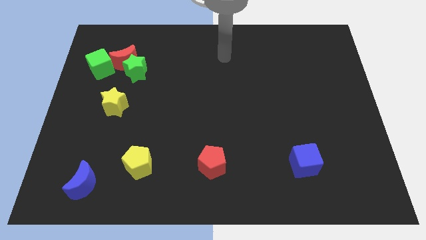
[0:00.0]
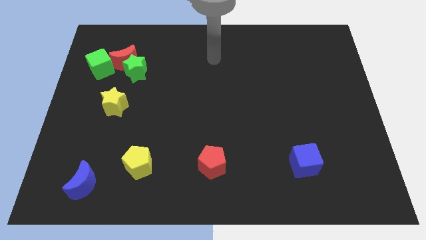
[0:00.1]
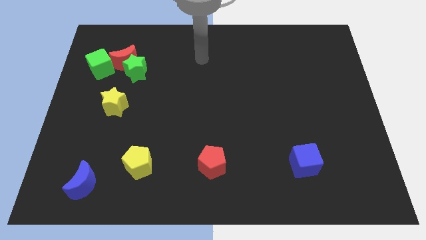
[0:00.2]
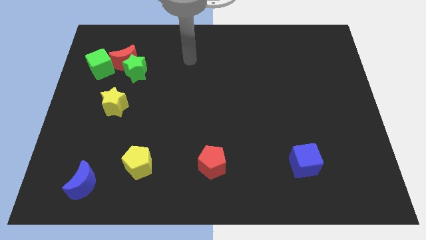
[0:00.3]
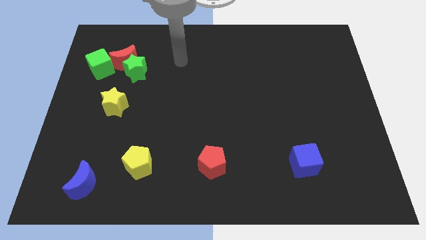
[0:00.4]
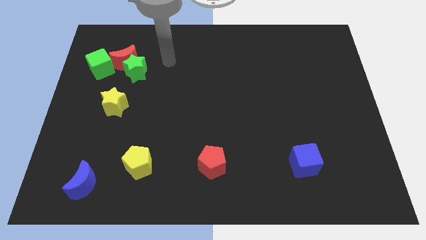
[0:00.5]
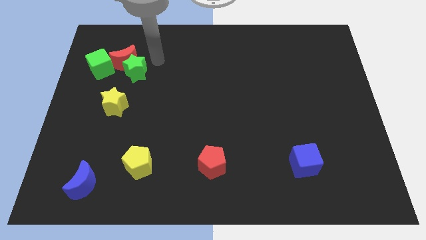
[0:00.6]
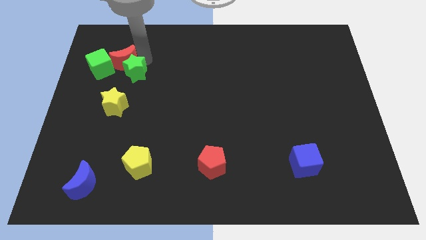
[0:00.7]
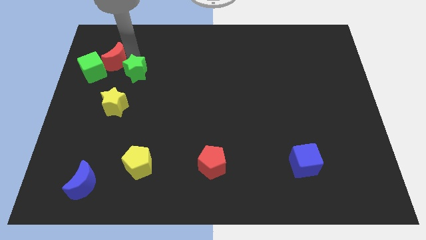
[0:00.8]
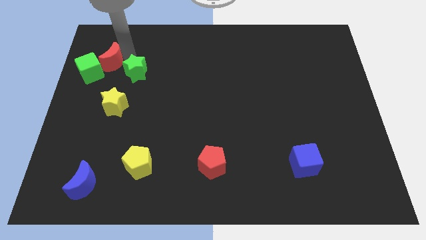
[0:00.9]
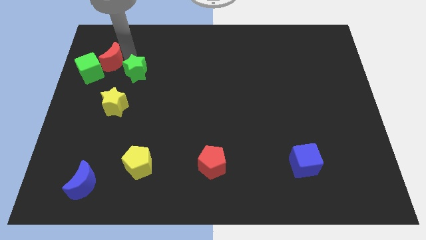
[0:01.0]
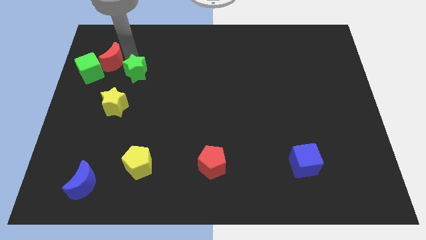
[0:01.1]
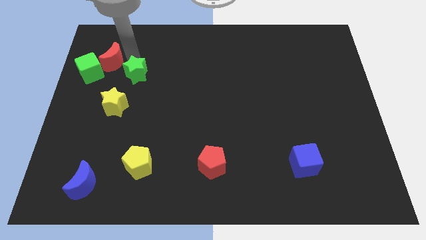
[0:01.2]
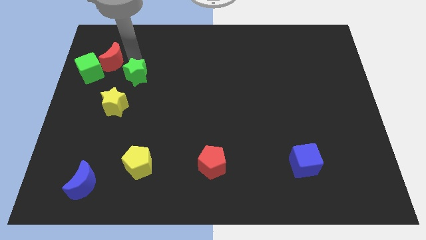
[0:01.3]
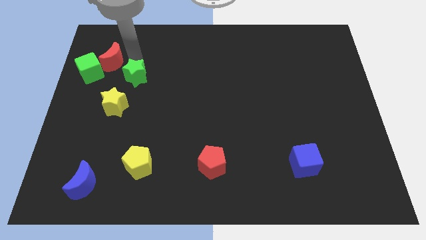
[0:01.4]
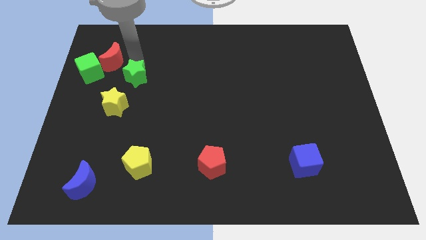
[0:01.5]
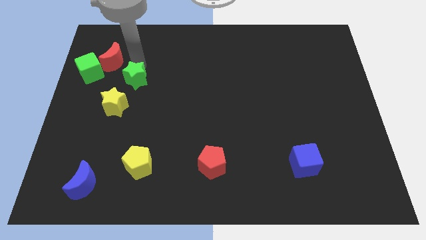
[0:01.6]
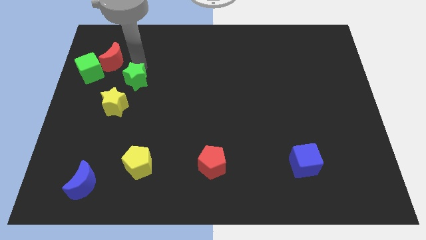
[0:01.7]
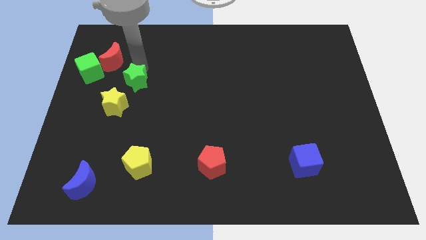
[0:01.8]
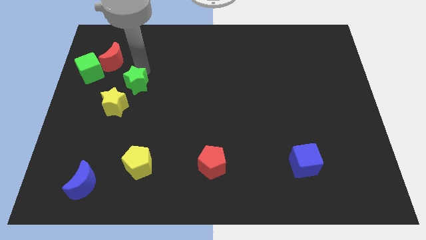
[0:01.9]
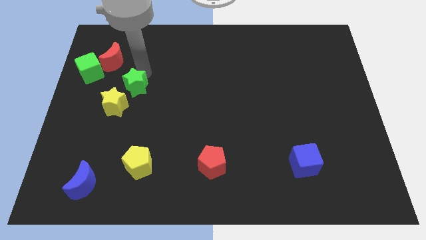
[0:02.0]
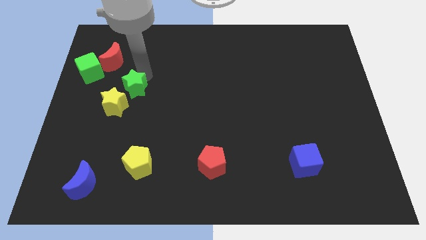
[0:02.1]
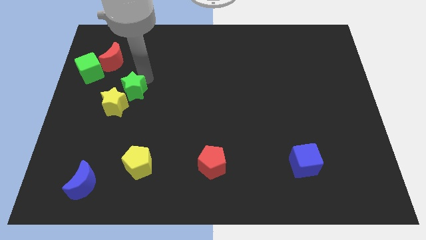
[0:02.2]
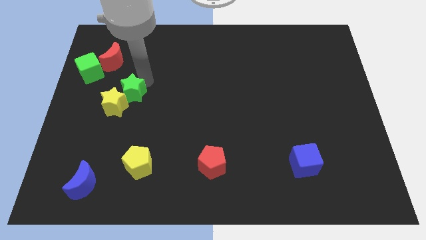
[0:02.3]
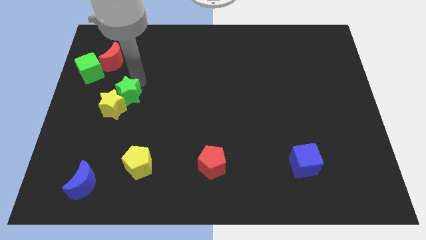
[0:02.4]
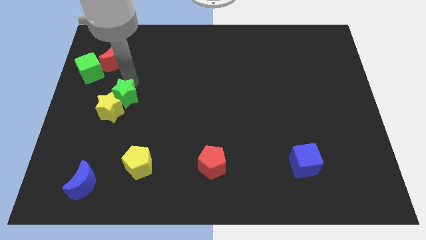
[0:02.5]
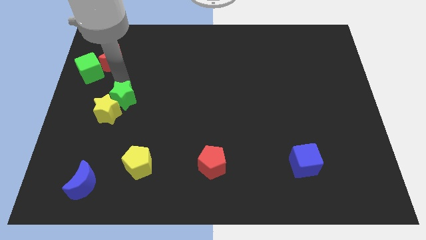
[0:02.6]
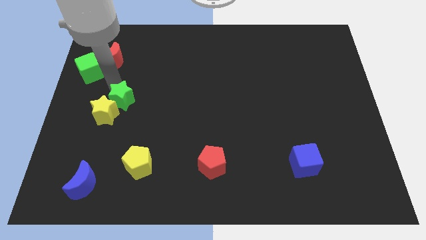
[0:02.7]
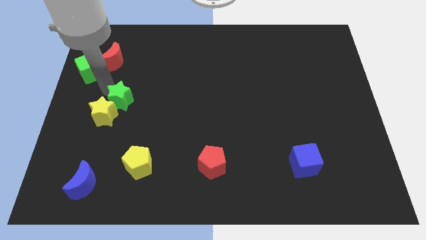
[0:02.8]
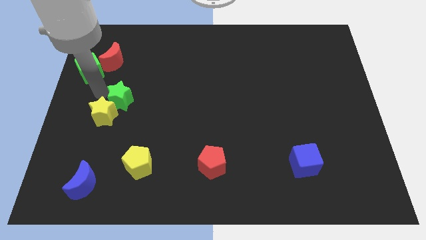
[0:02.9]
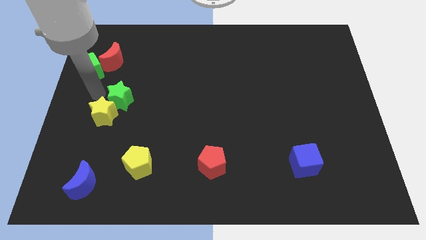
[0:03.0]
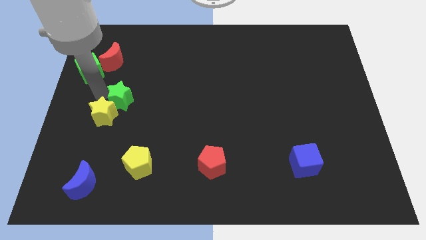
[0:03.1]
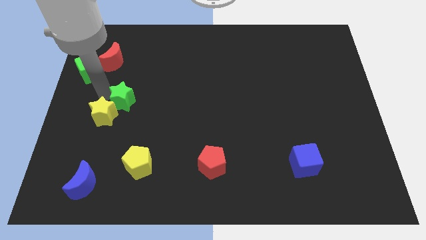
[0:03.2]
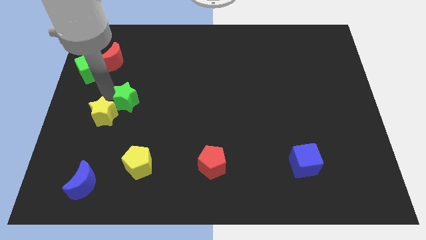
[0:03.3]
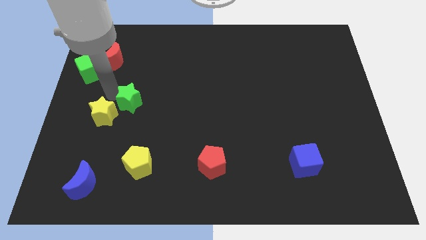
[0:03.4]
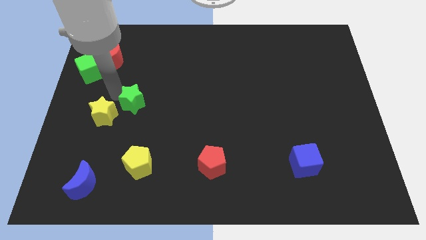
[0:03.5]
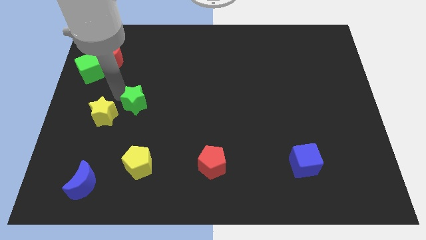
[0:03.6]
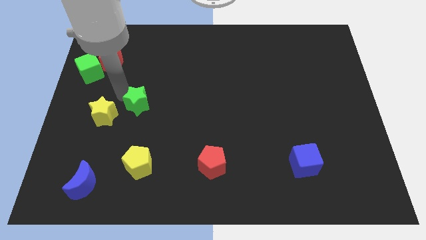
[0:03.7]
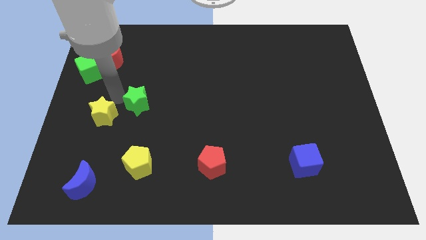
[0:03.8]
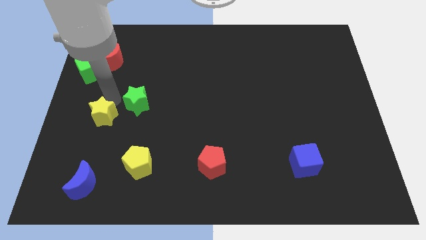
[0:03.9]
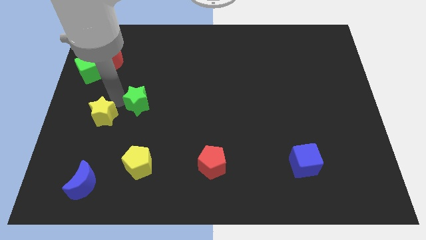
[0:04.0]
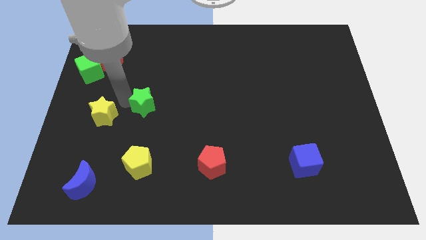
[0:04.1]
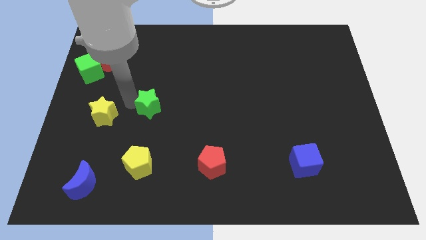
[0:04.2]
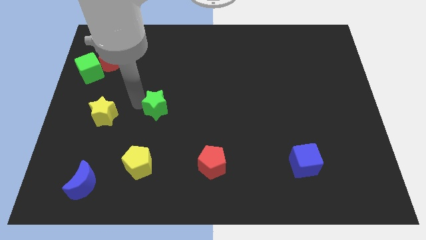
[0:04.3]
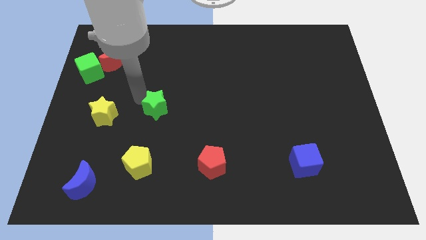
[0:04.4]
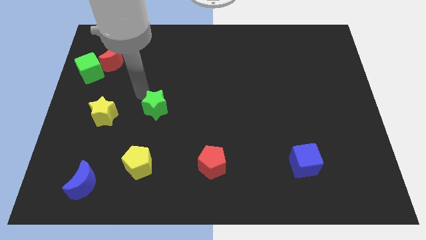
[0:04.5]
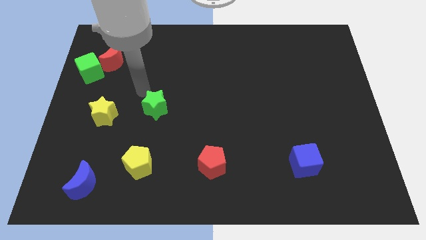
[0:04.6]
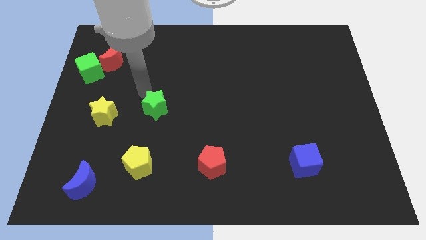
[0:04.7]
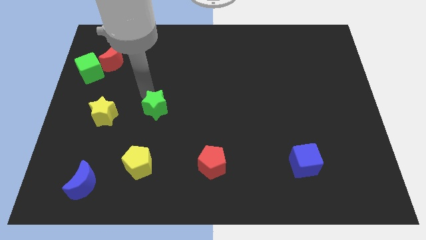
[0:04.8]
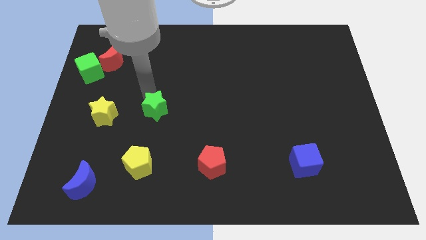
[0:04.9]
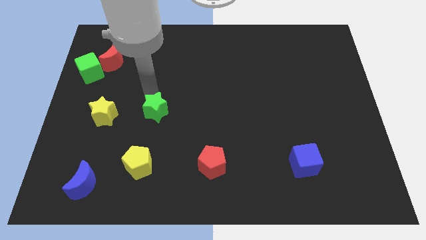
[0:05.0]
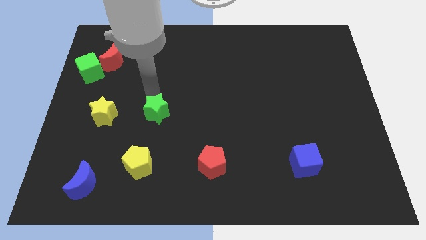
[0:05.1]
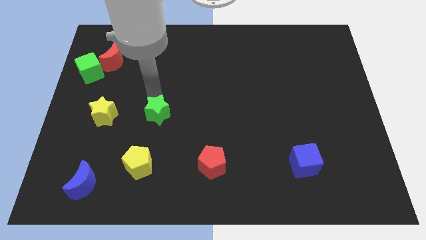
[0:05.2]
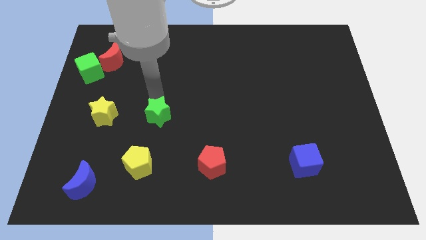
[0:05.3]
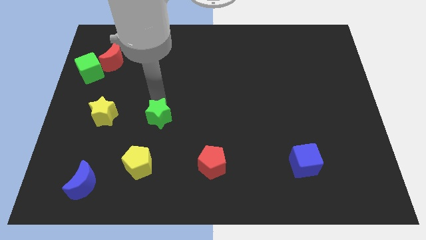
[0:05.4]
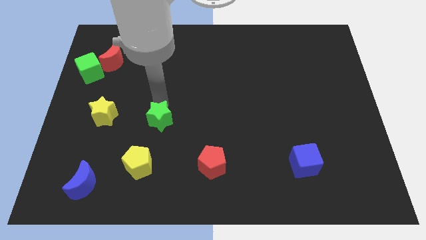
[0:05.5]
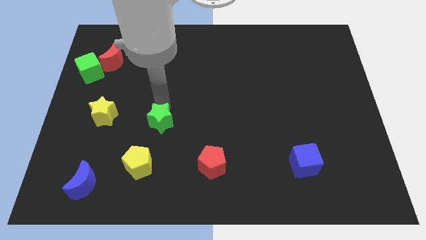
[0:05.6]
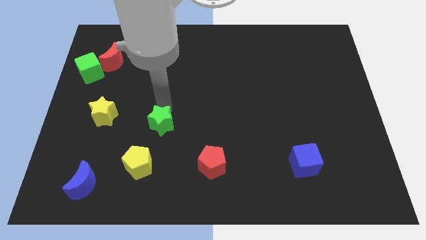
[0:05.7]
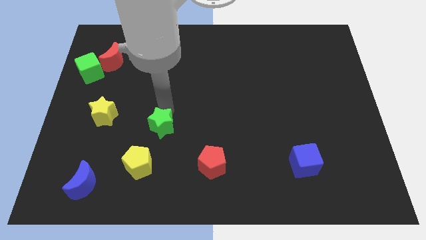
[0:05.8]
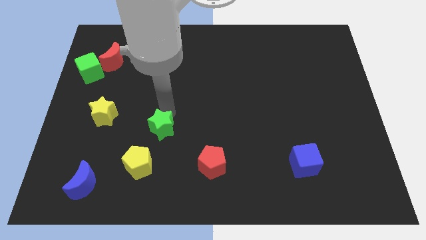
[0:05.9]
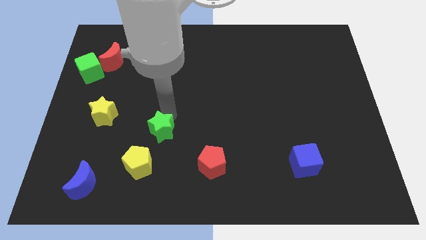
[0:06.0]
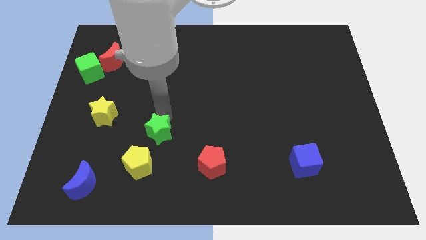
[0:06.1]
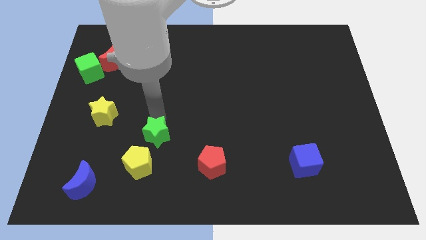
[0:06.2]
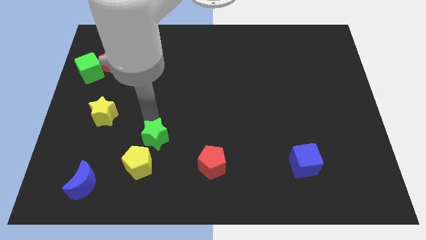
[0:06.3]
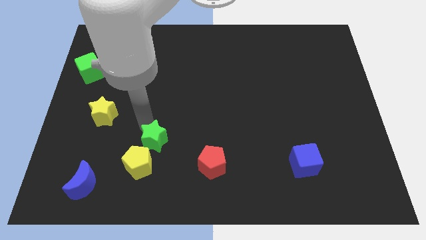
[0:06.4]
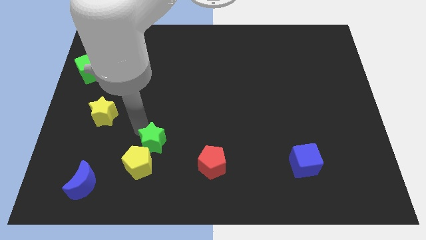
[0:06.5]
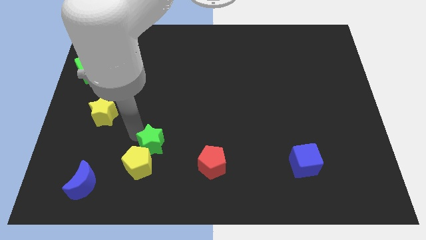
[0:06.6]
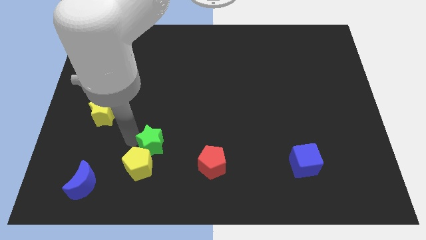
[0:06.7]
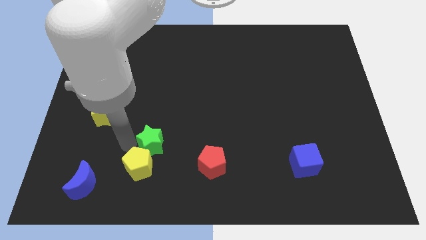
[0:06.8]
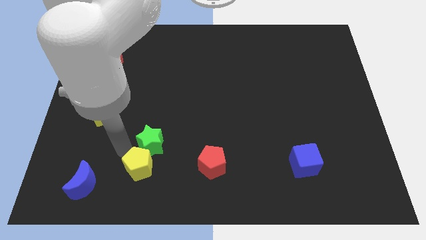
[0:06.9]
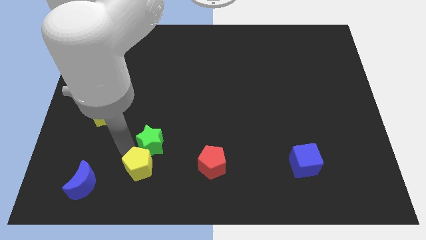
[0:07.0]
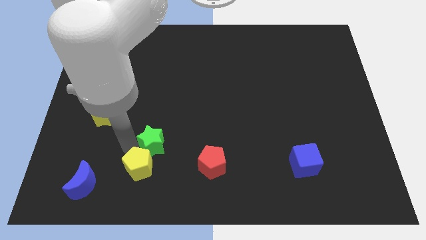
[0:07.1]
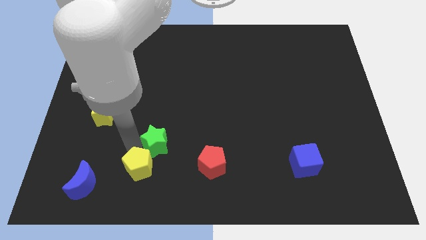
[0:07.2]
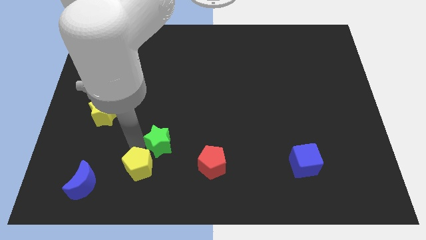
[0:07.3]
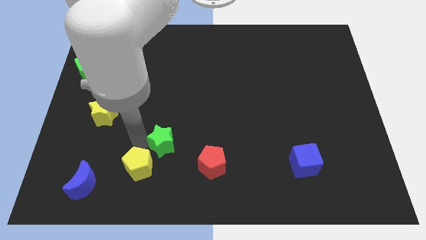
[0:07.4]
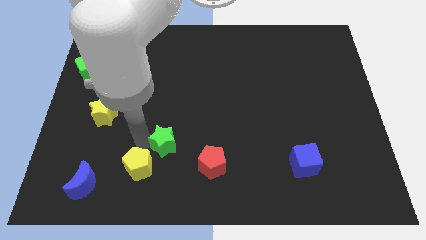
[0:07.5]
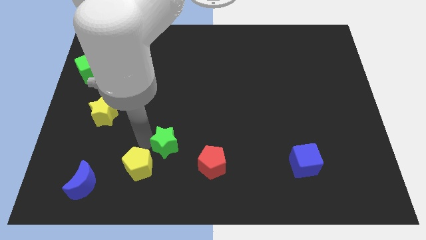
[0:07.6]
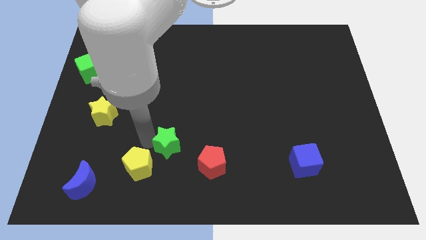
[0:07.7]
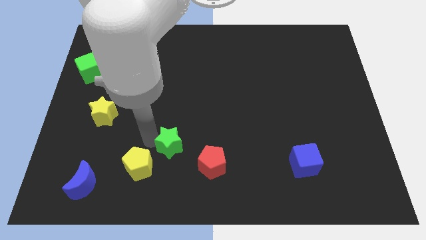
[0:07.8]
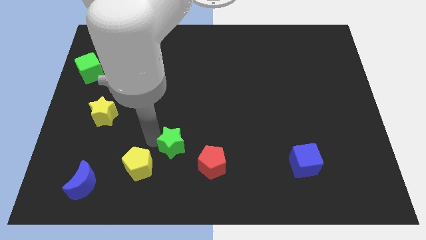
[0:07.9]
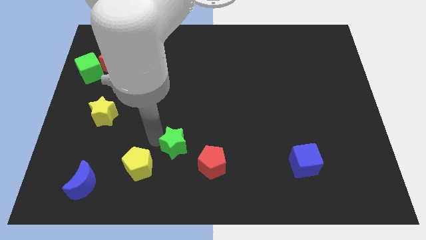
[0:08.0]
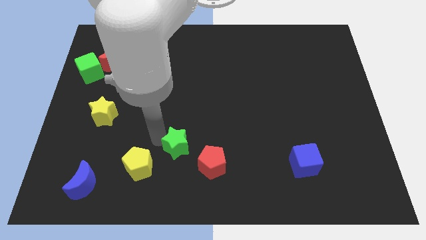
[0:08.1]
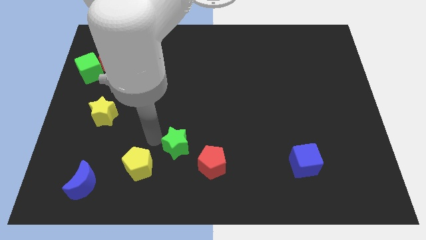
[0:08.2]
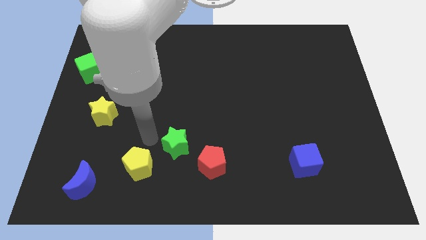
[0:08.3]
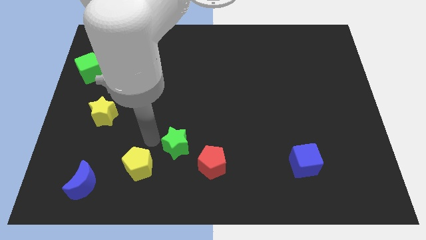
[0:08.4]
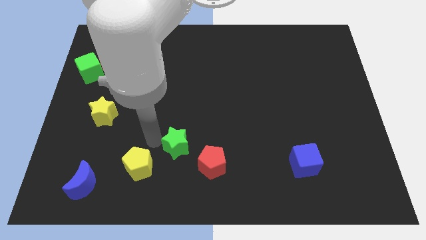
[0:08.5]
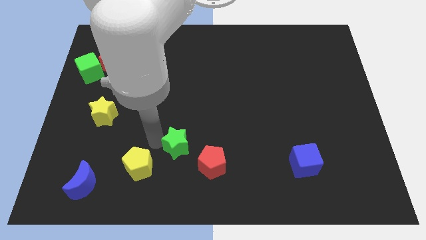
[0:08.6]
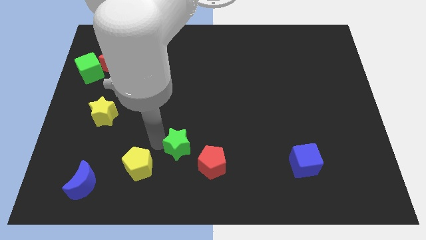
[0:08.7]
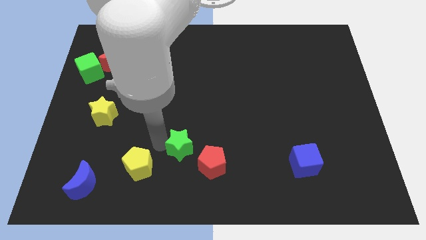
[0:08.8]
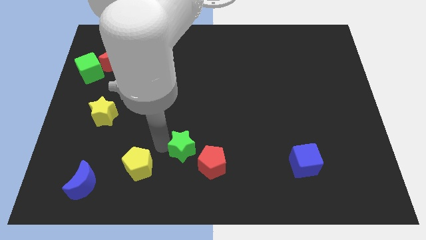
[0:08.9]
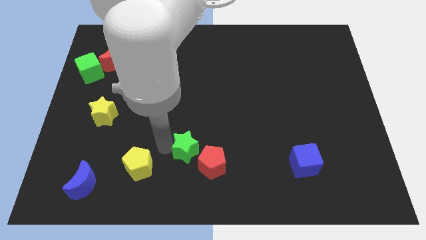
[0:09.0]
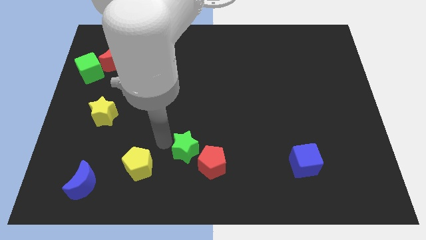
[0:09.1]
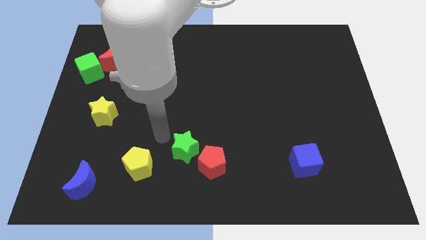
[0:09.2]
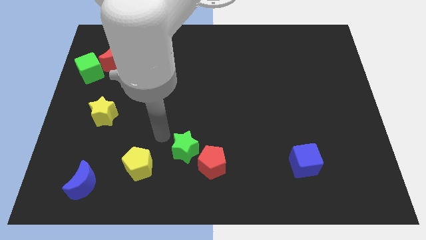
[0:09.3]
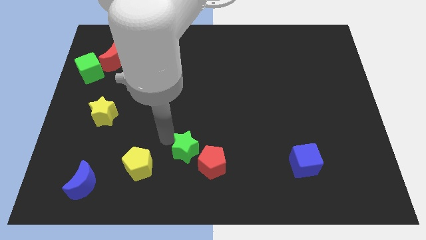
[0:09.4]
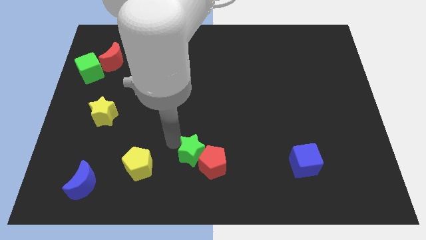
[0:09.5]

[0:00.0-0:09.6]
move the green star close to the red pentagon
